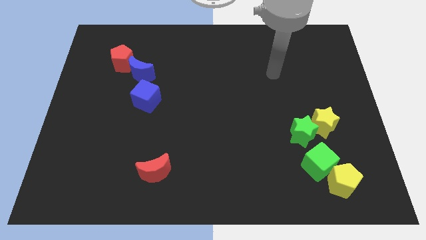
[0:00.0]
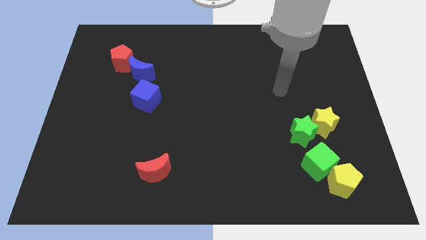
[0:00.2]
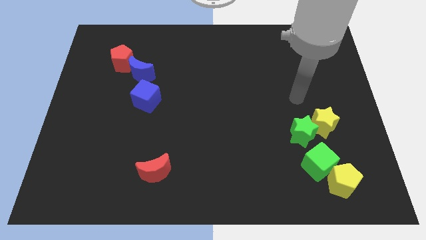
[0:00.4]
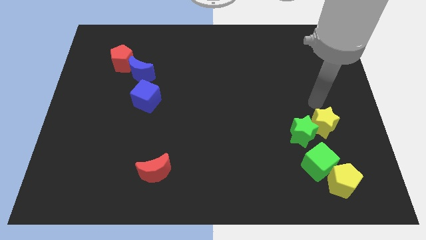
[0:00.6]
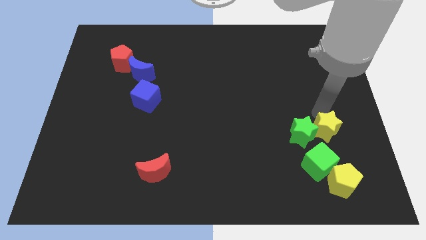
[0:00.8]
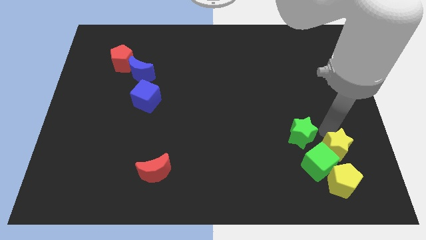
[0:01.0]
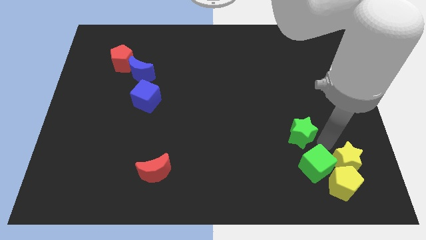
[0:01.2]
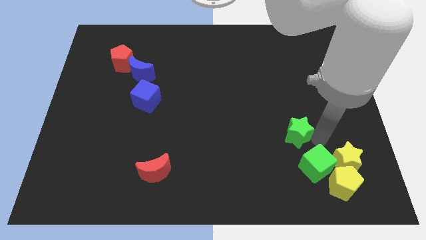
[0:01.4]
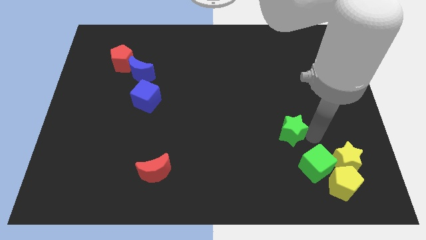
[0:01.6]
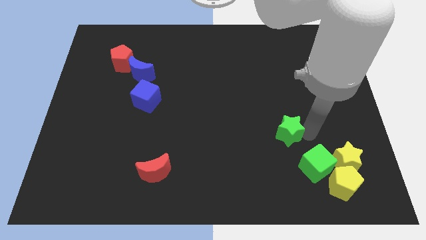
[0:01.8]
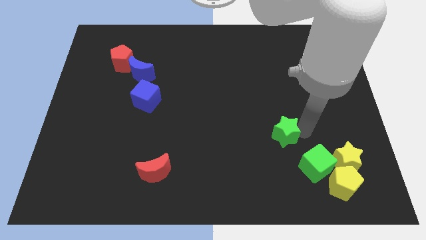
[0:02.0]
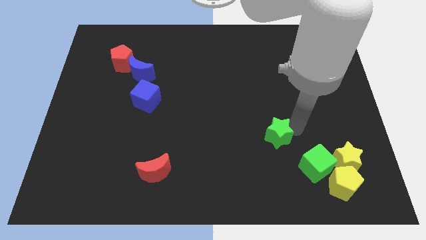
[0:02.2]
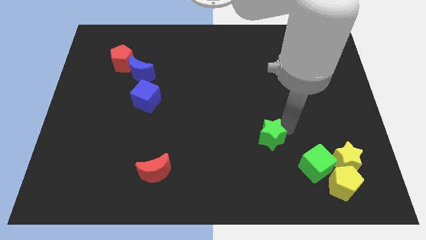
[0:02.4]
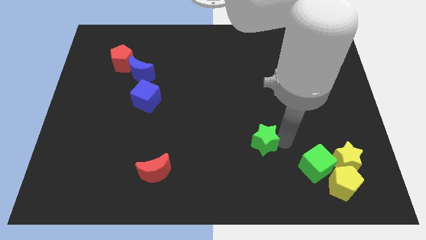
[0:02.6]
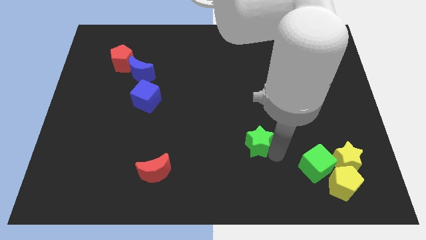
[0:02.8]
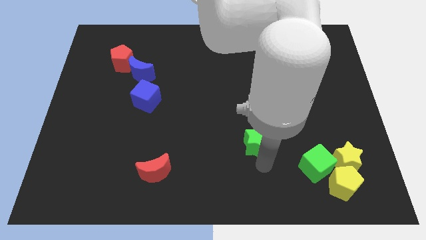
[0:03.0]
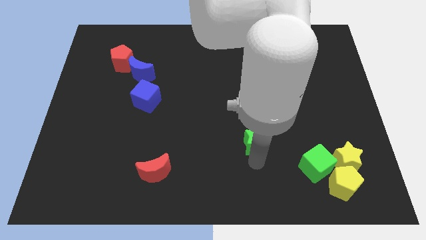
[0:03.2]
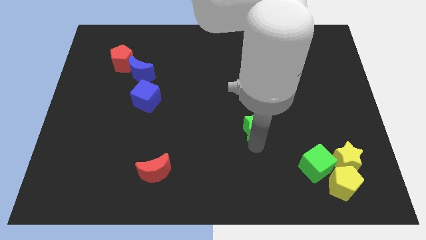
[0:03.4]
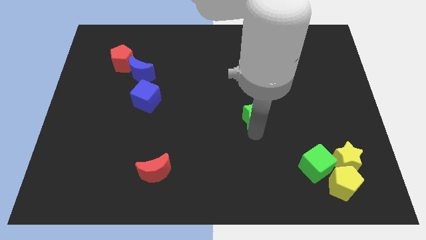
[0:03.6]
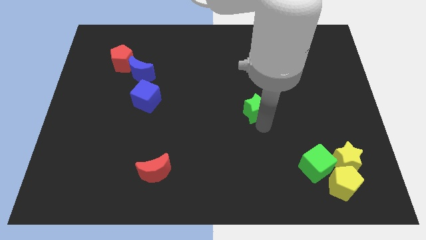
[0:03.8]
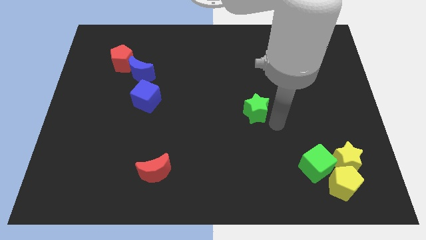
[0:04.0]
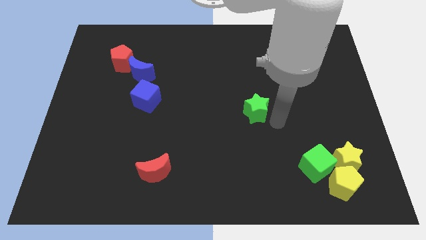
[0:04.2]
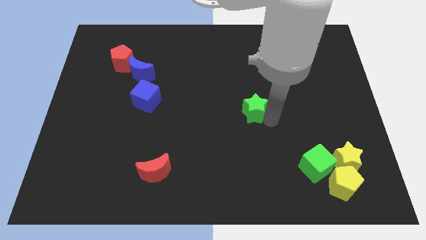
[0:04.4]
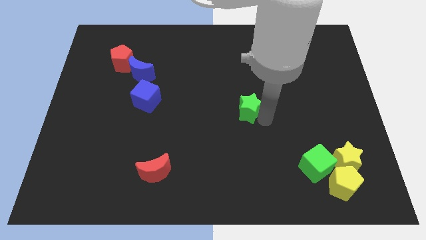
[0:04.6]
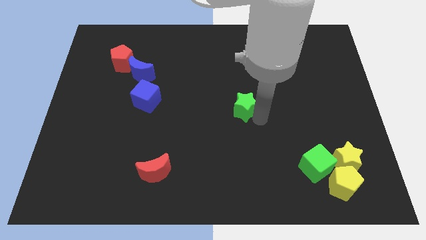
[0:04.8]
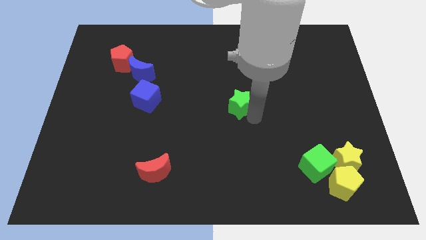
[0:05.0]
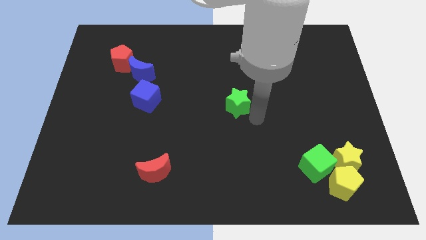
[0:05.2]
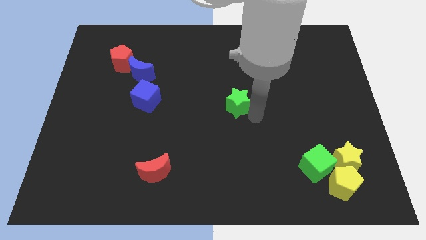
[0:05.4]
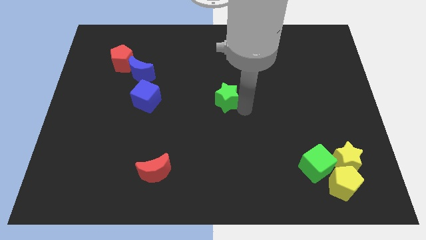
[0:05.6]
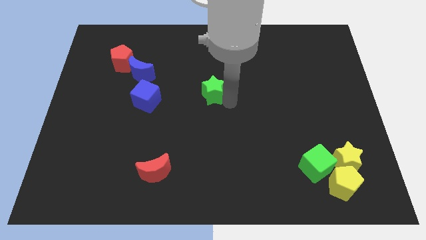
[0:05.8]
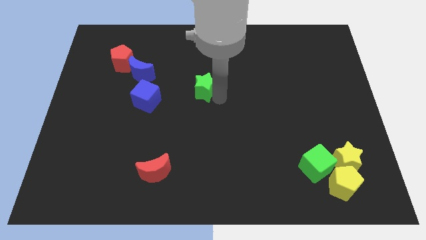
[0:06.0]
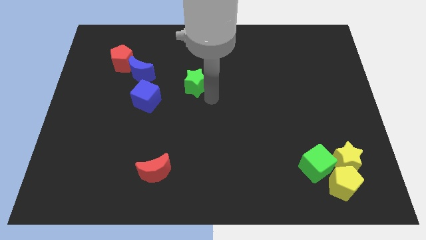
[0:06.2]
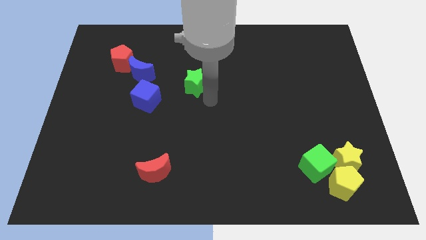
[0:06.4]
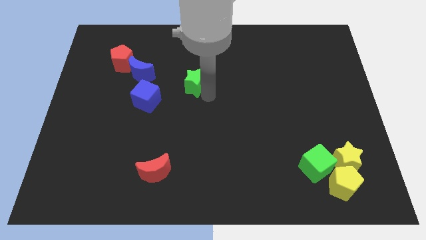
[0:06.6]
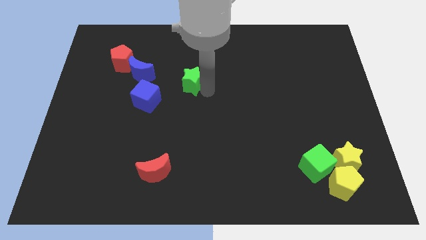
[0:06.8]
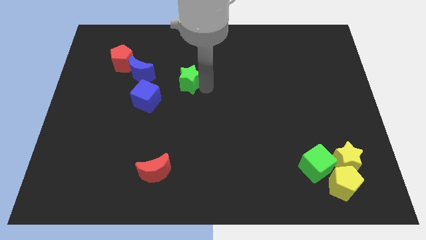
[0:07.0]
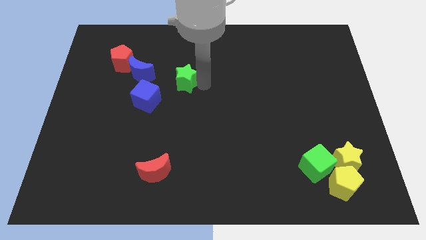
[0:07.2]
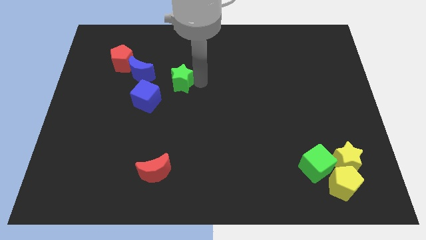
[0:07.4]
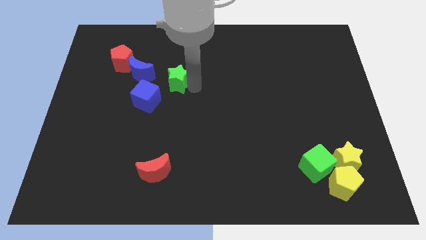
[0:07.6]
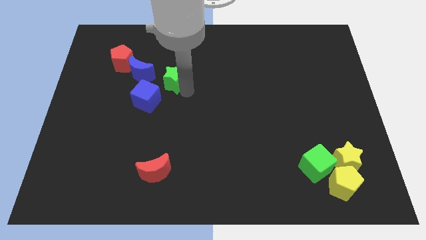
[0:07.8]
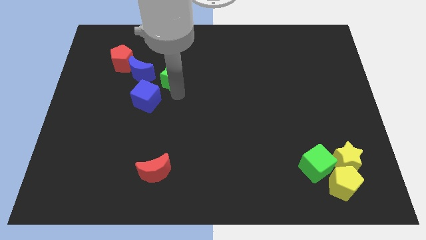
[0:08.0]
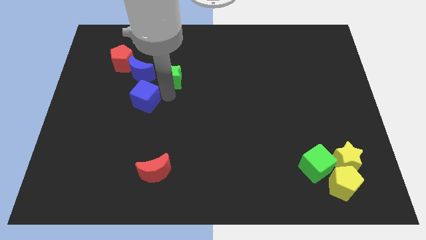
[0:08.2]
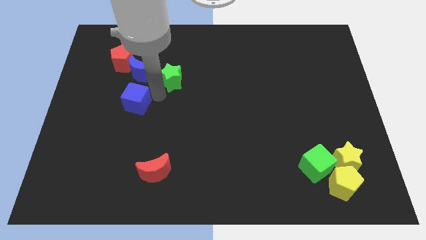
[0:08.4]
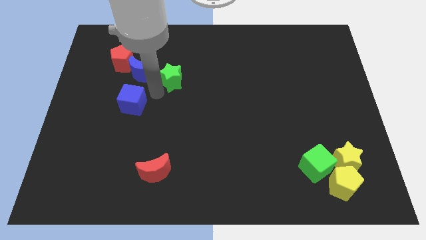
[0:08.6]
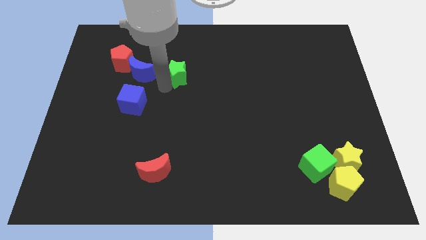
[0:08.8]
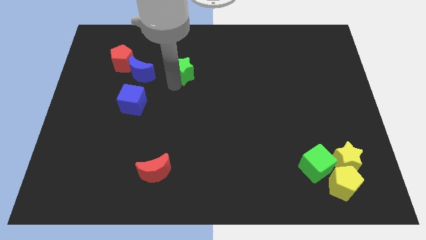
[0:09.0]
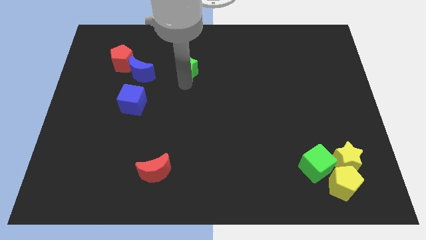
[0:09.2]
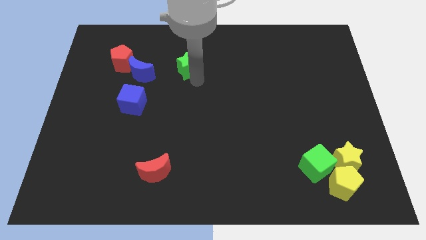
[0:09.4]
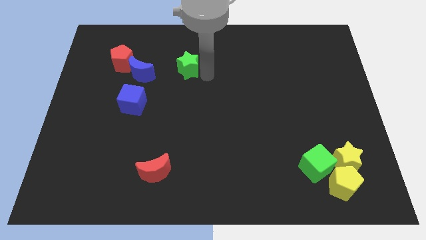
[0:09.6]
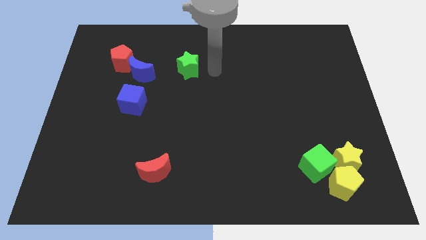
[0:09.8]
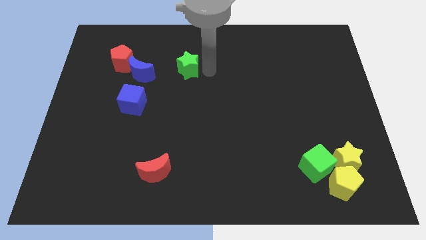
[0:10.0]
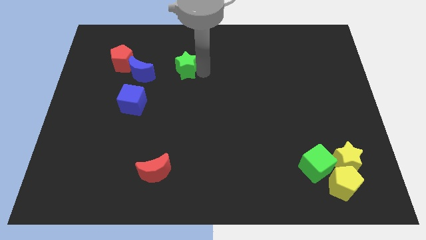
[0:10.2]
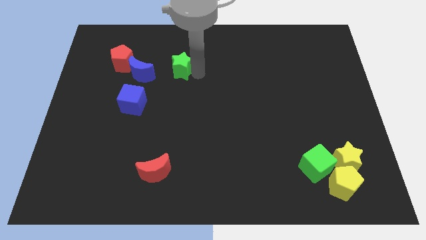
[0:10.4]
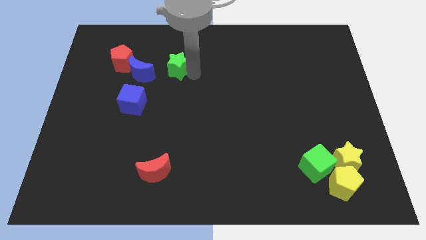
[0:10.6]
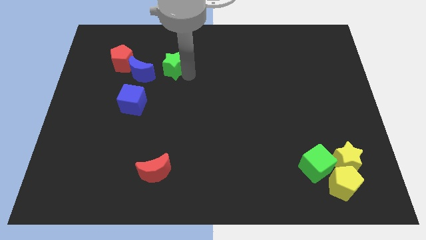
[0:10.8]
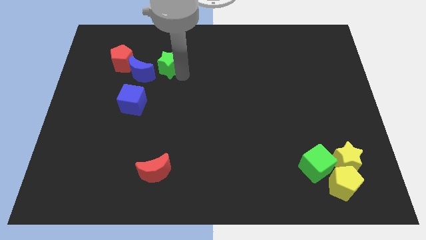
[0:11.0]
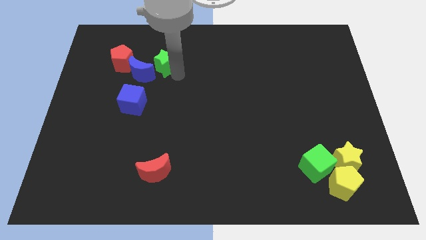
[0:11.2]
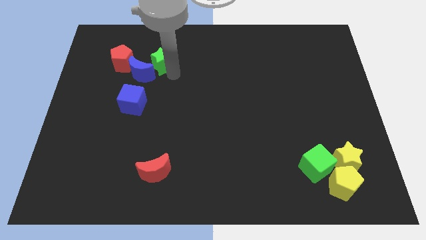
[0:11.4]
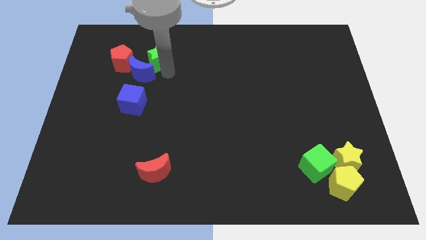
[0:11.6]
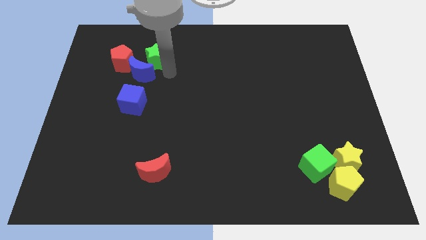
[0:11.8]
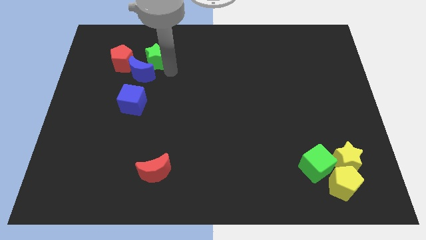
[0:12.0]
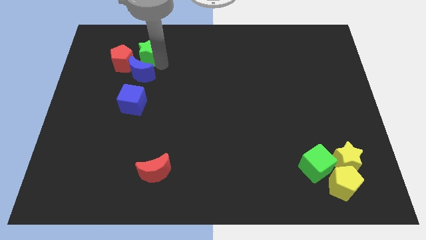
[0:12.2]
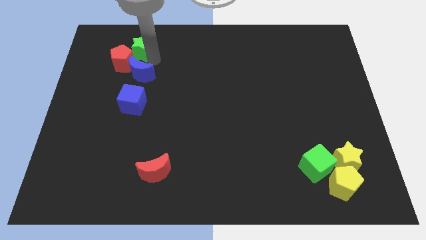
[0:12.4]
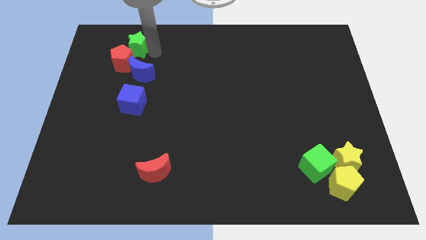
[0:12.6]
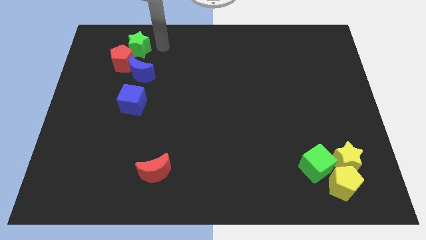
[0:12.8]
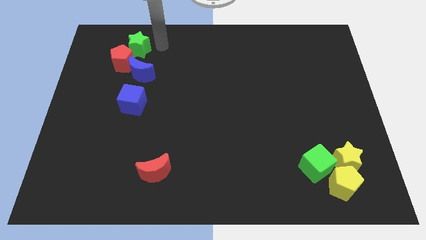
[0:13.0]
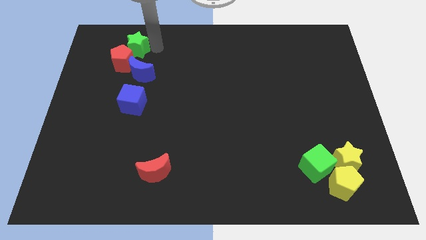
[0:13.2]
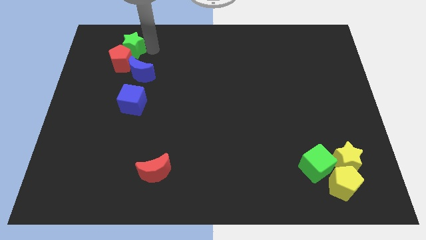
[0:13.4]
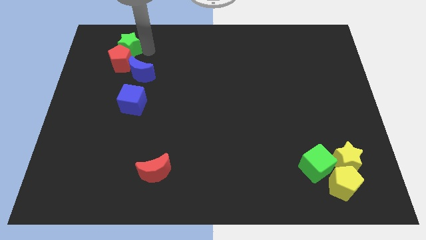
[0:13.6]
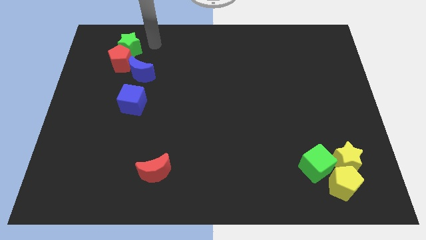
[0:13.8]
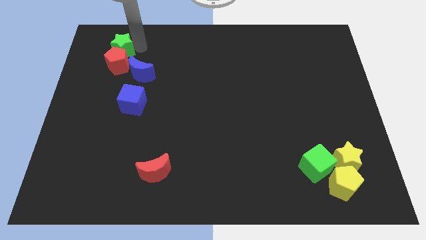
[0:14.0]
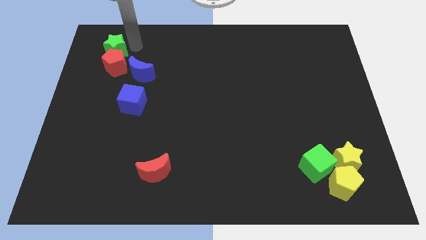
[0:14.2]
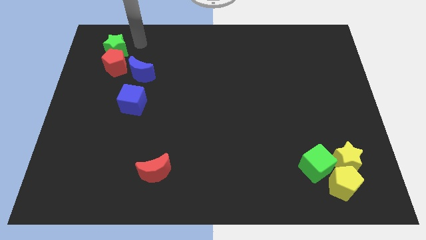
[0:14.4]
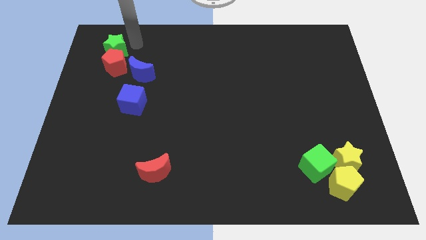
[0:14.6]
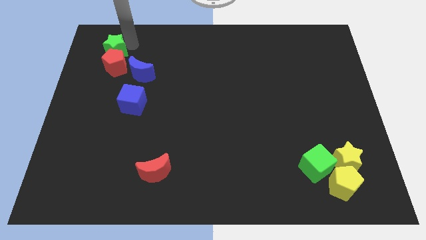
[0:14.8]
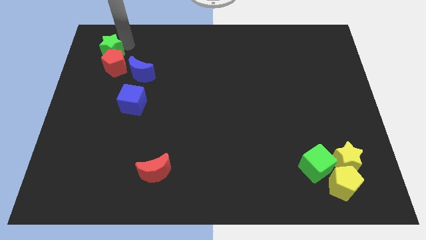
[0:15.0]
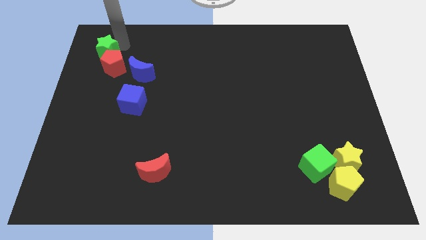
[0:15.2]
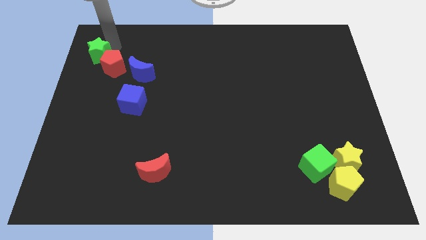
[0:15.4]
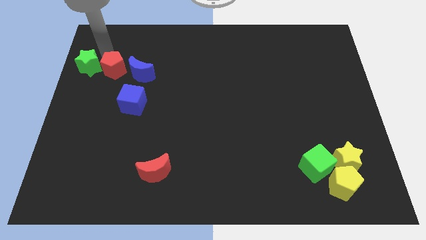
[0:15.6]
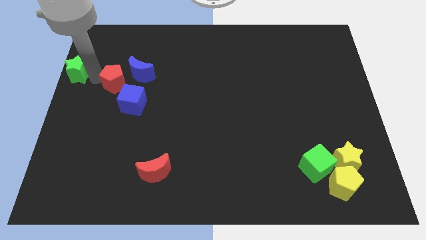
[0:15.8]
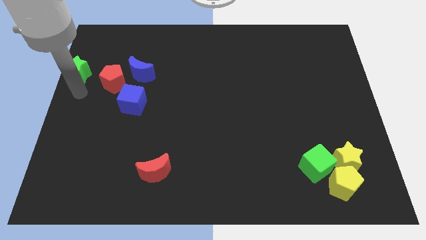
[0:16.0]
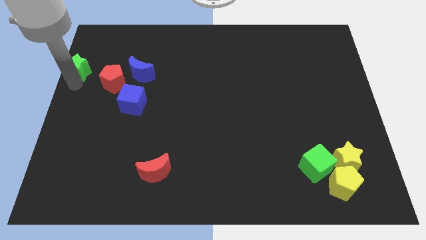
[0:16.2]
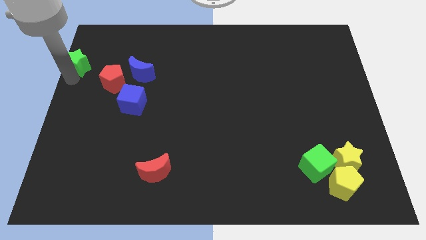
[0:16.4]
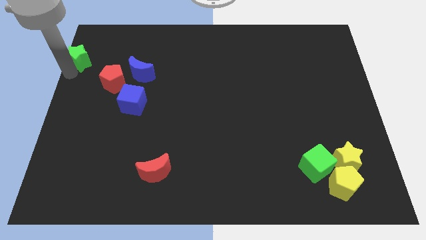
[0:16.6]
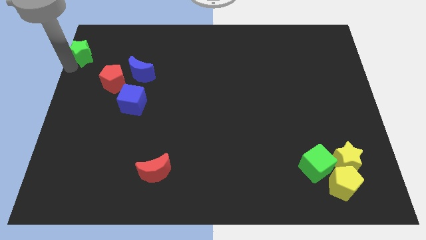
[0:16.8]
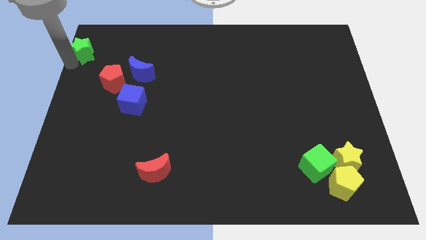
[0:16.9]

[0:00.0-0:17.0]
put the green star to the top left of the board
